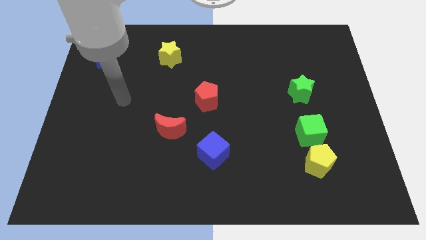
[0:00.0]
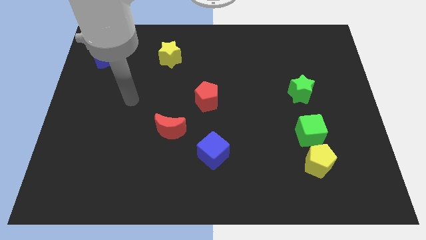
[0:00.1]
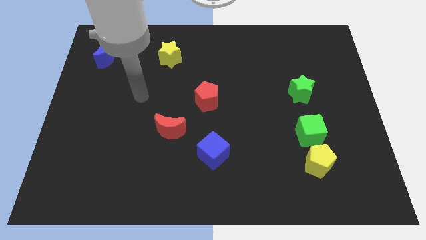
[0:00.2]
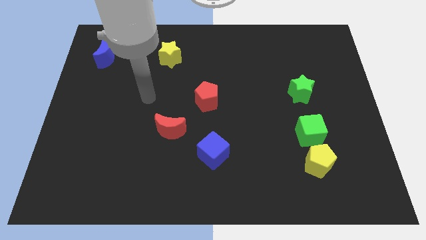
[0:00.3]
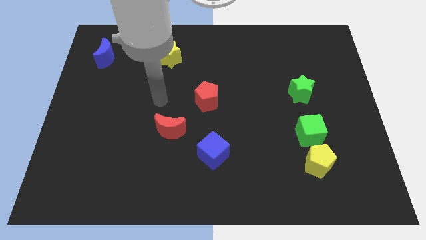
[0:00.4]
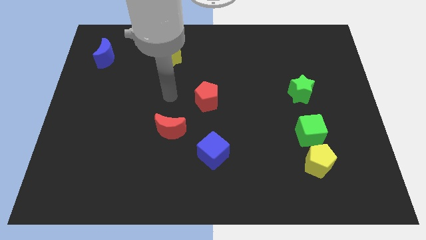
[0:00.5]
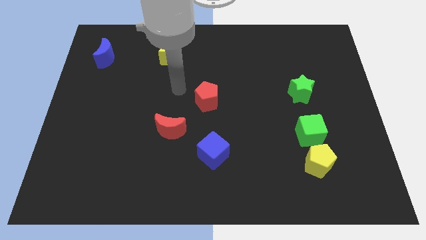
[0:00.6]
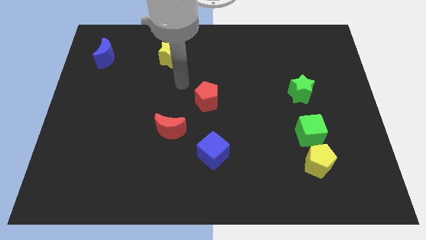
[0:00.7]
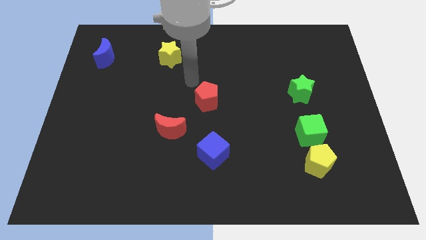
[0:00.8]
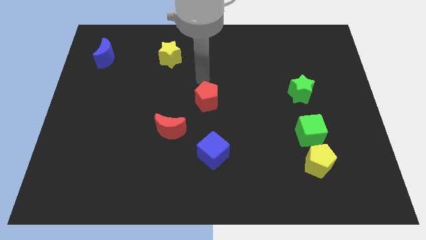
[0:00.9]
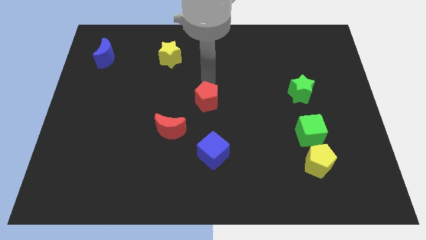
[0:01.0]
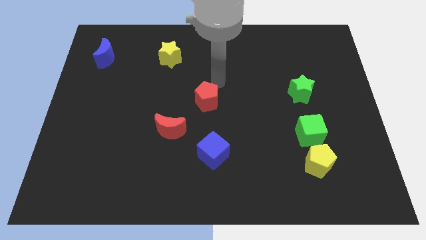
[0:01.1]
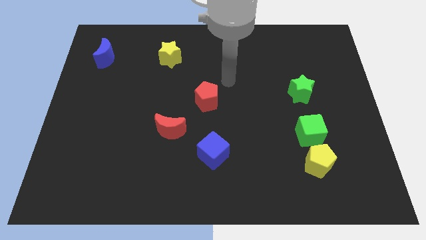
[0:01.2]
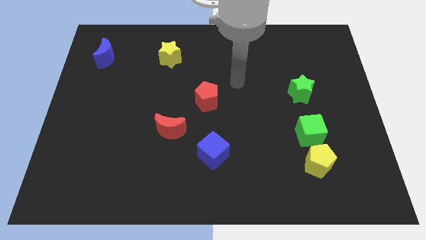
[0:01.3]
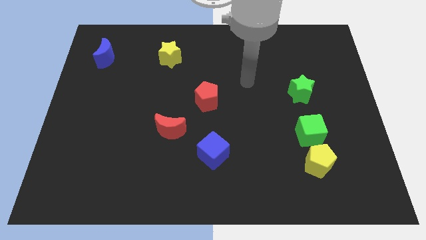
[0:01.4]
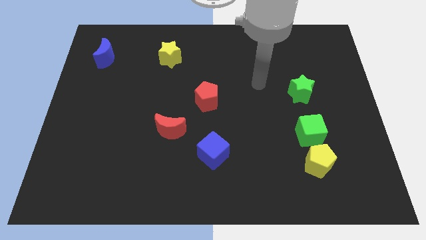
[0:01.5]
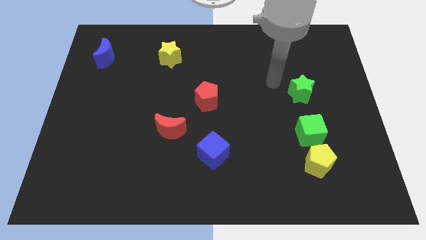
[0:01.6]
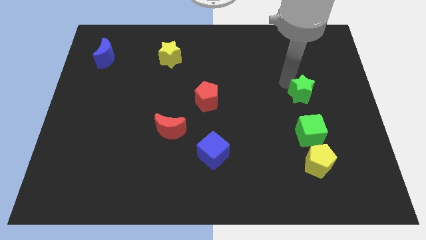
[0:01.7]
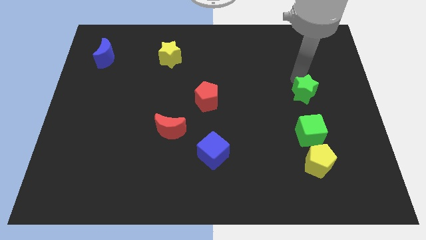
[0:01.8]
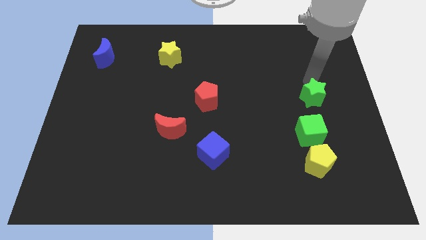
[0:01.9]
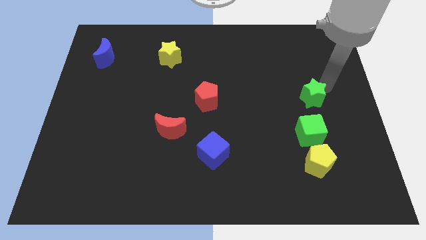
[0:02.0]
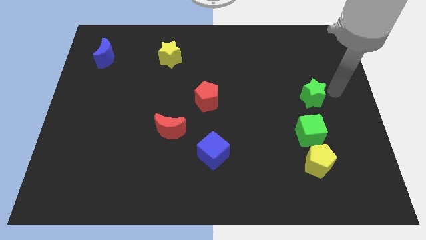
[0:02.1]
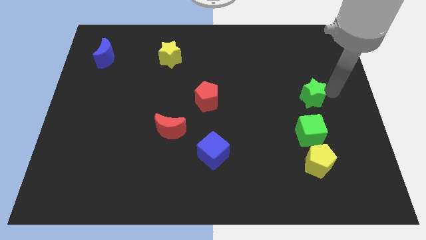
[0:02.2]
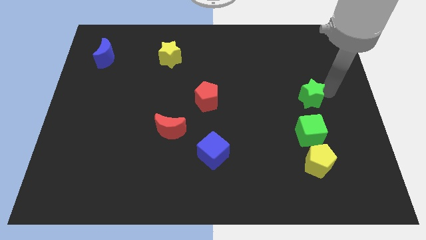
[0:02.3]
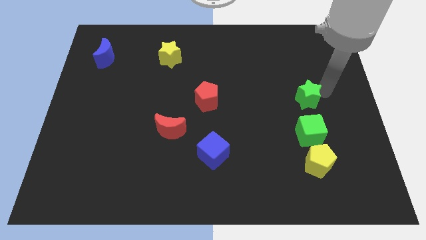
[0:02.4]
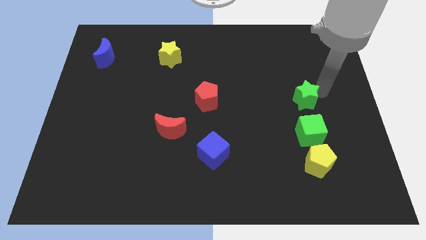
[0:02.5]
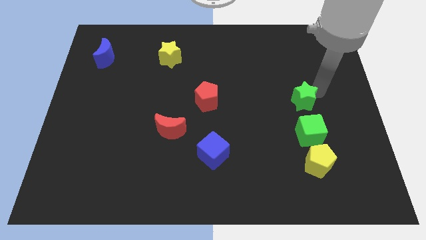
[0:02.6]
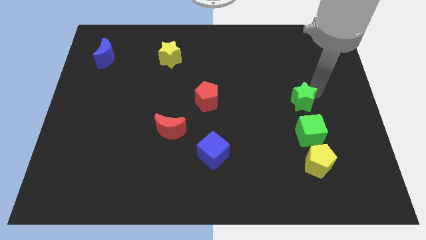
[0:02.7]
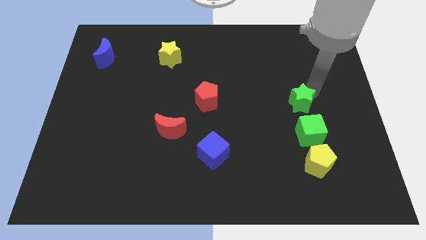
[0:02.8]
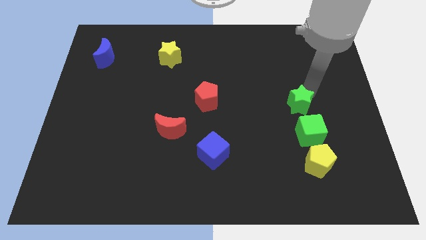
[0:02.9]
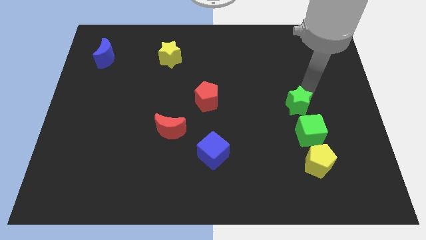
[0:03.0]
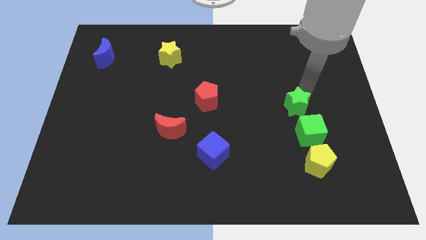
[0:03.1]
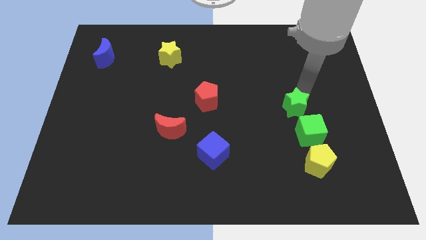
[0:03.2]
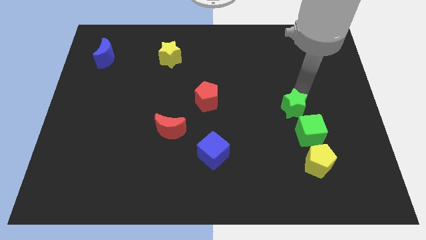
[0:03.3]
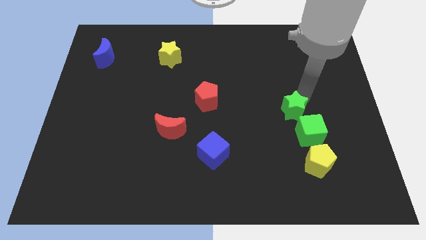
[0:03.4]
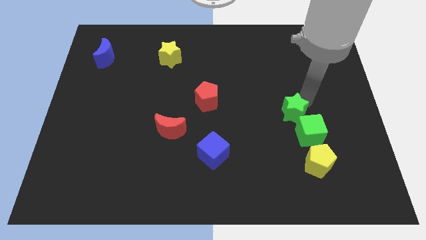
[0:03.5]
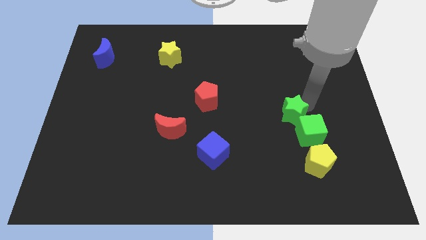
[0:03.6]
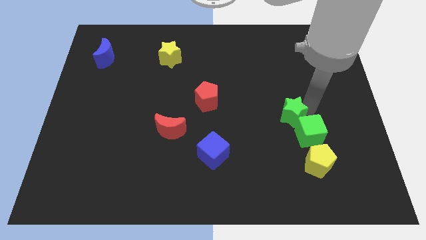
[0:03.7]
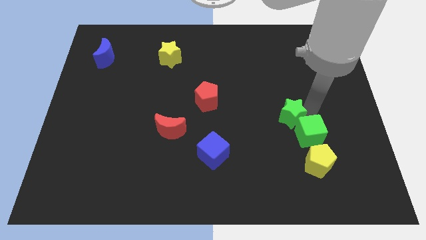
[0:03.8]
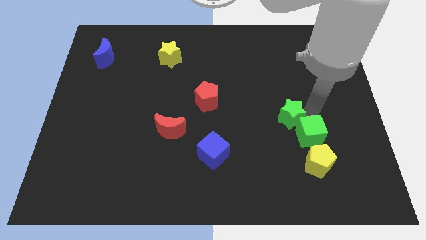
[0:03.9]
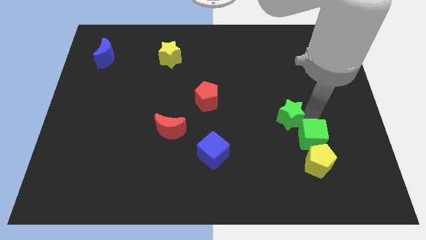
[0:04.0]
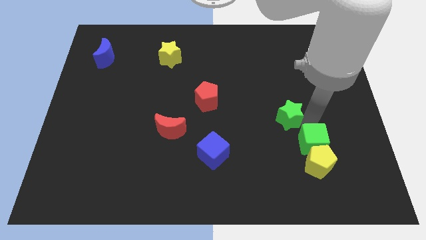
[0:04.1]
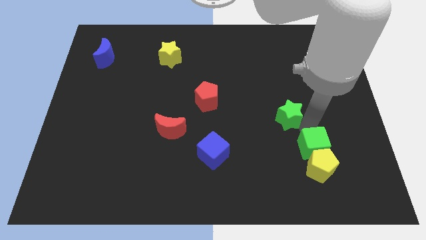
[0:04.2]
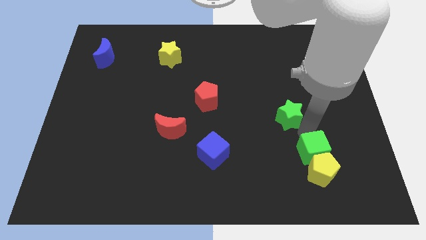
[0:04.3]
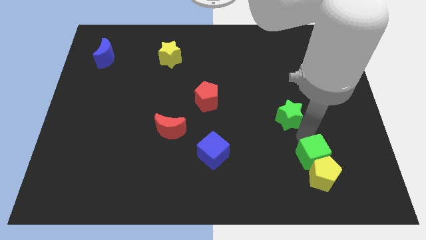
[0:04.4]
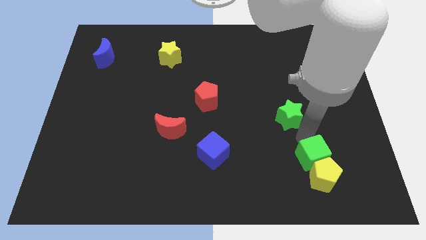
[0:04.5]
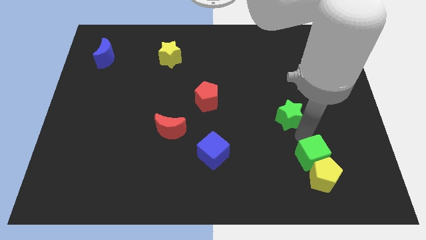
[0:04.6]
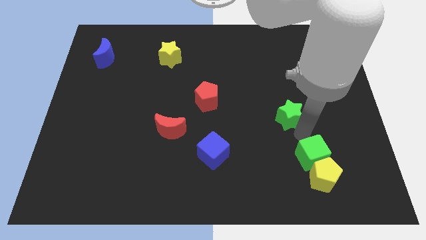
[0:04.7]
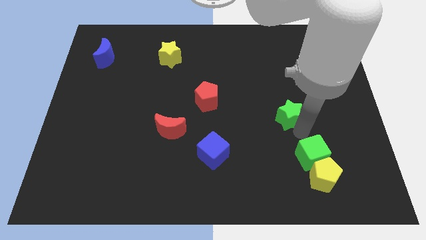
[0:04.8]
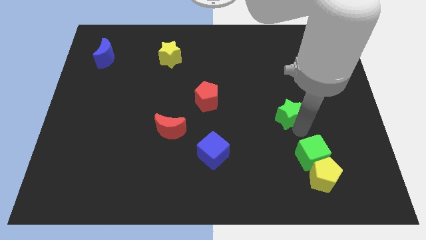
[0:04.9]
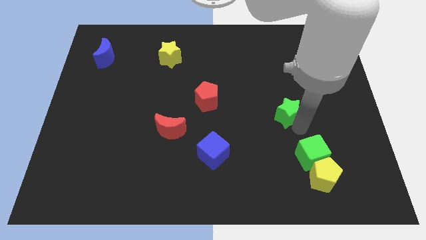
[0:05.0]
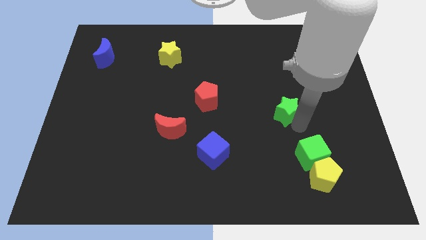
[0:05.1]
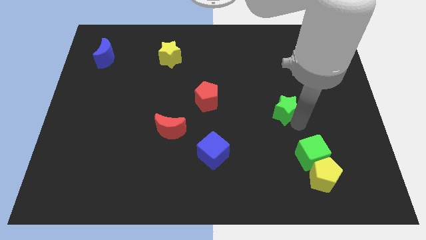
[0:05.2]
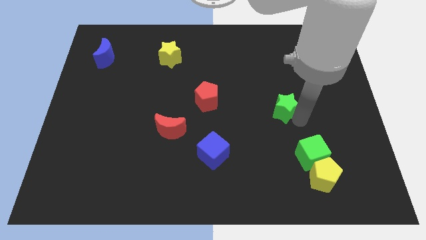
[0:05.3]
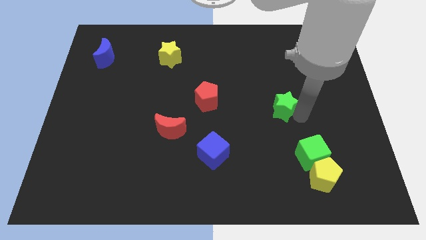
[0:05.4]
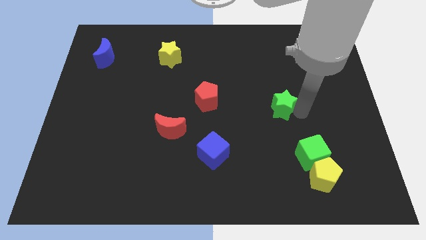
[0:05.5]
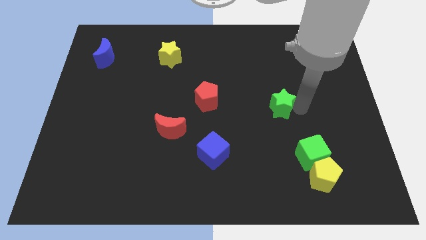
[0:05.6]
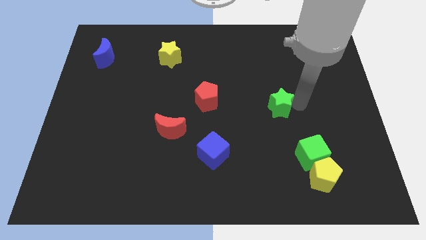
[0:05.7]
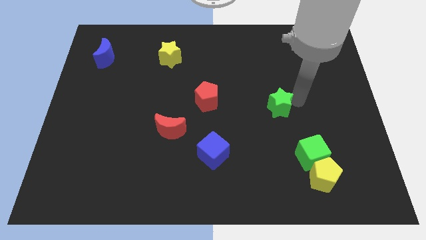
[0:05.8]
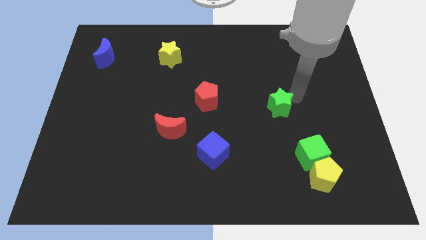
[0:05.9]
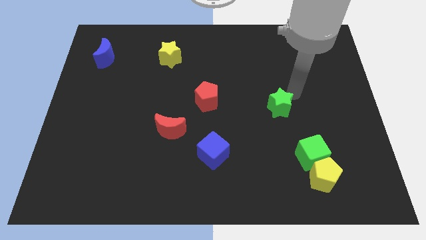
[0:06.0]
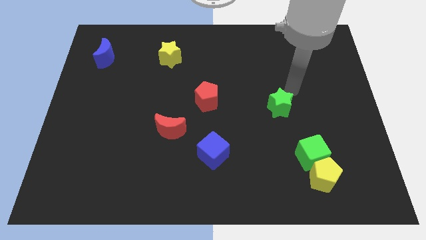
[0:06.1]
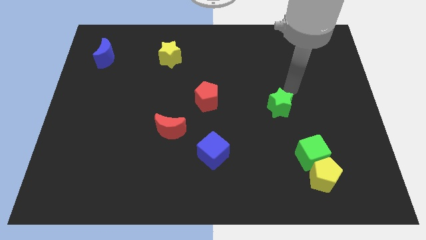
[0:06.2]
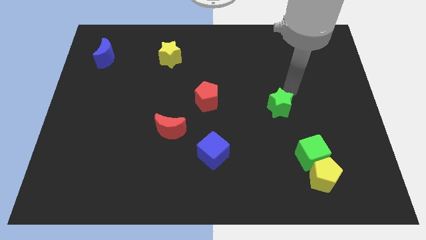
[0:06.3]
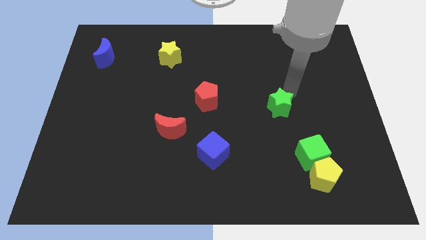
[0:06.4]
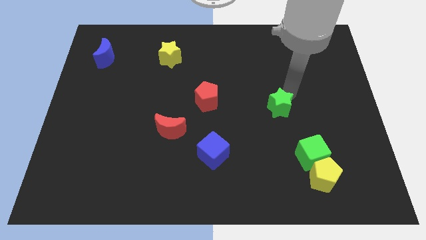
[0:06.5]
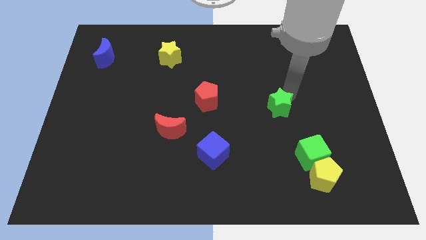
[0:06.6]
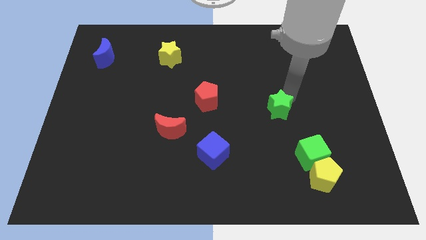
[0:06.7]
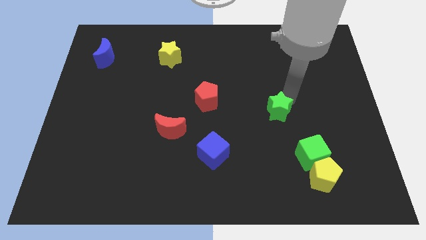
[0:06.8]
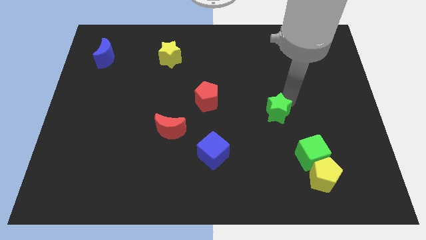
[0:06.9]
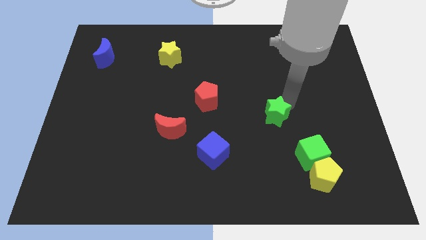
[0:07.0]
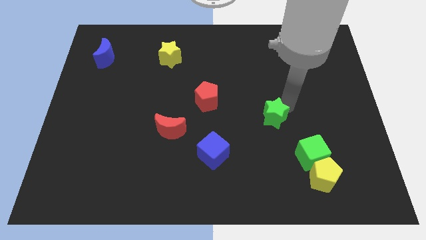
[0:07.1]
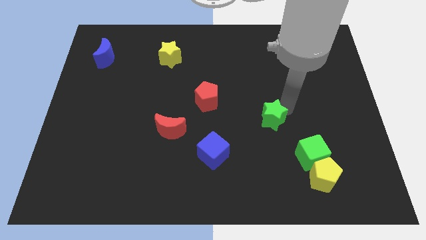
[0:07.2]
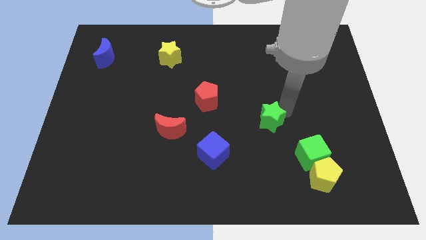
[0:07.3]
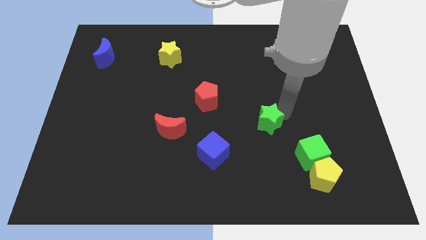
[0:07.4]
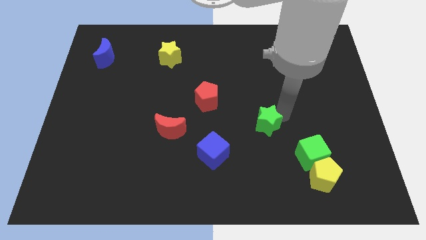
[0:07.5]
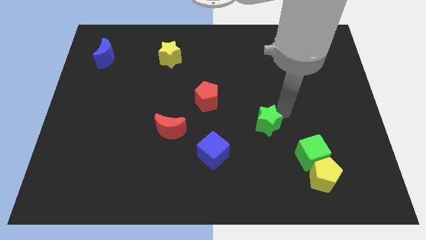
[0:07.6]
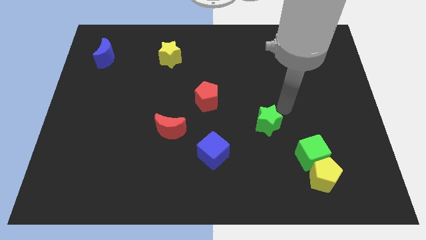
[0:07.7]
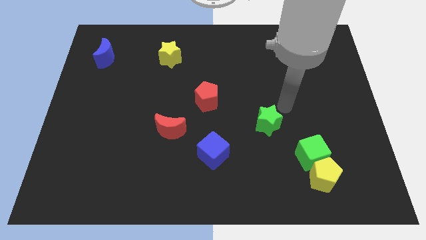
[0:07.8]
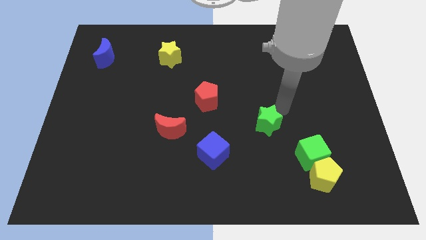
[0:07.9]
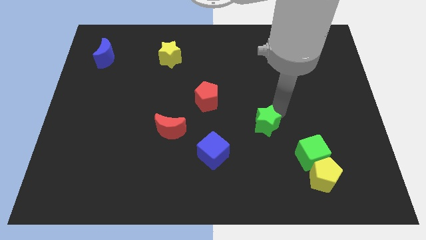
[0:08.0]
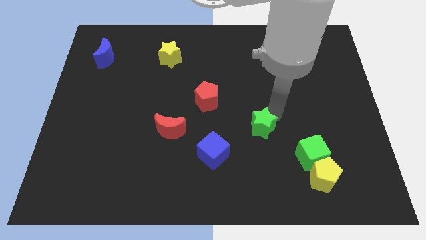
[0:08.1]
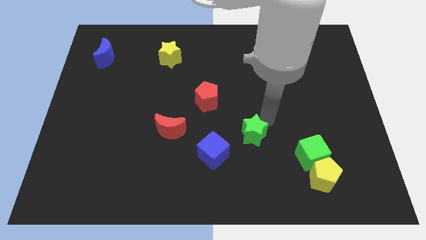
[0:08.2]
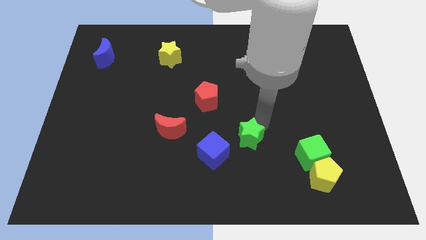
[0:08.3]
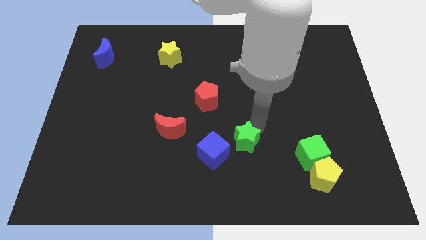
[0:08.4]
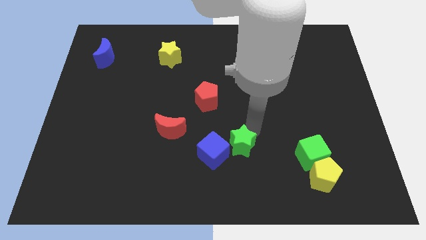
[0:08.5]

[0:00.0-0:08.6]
move the green star down and left diagonally
